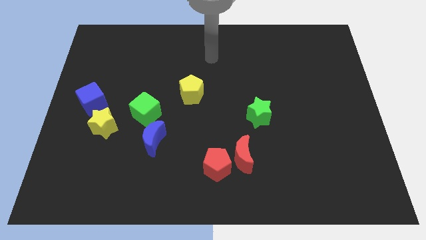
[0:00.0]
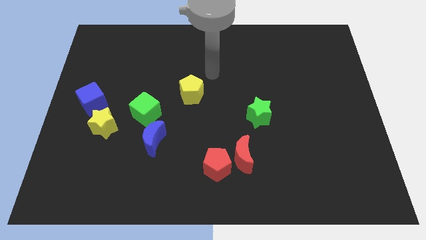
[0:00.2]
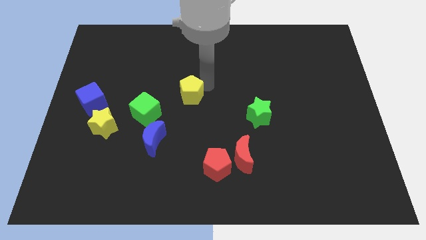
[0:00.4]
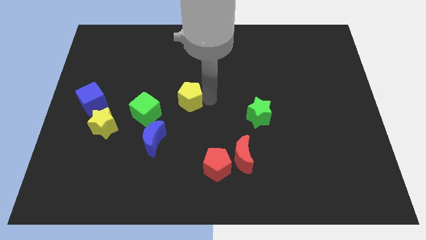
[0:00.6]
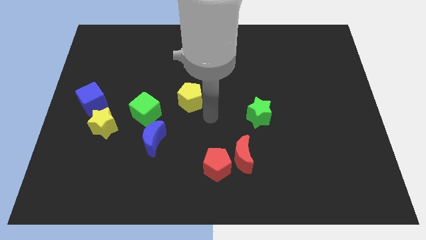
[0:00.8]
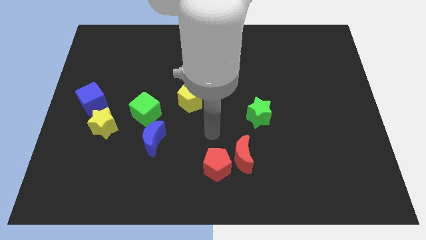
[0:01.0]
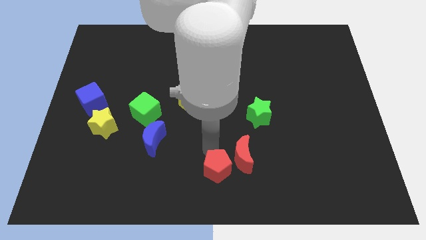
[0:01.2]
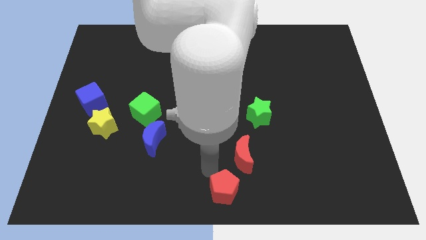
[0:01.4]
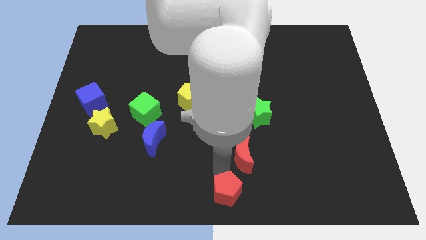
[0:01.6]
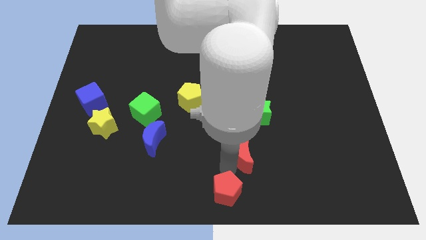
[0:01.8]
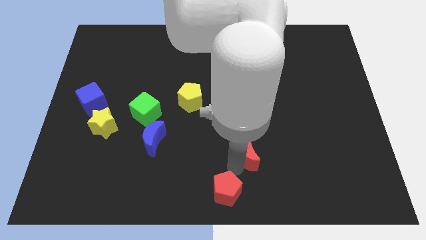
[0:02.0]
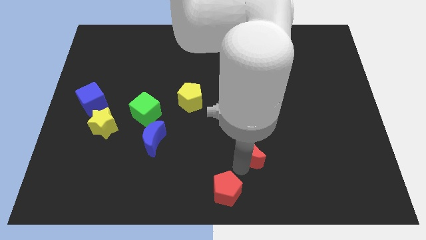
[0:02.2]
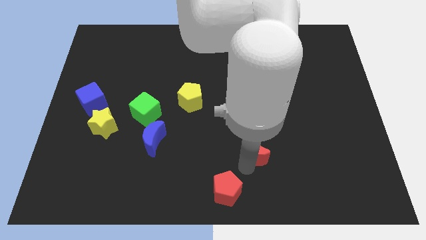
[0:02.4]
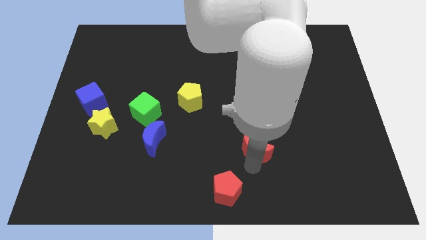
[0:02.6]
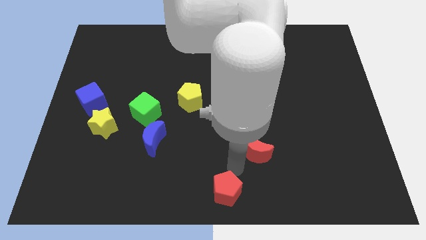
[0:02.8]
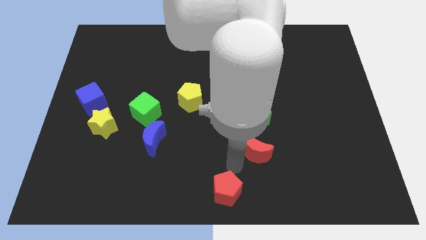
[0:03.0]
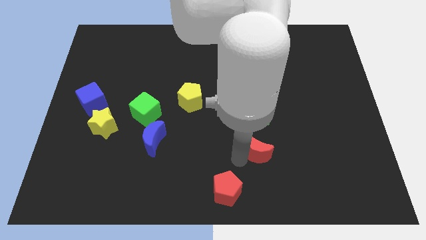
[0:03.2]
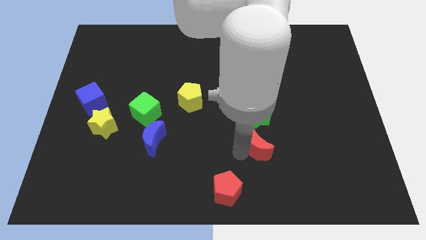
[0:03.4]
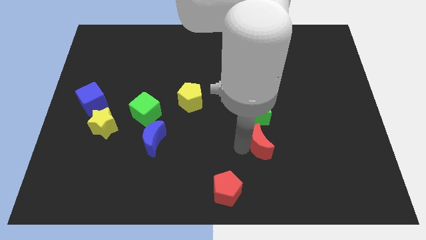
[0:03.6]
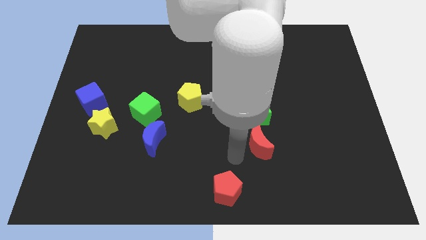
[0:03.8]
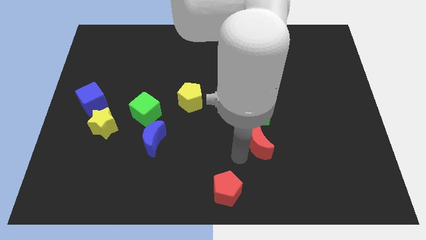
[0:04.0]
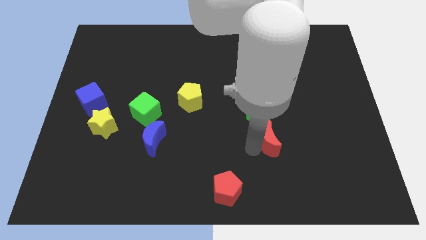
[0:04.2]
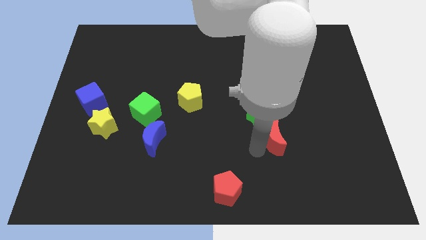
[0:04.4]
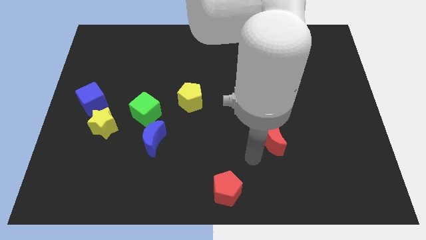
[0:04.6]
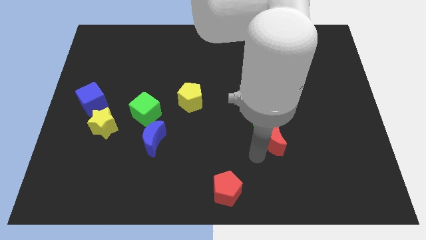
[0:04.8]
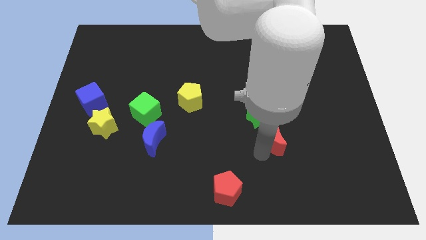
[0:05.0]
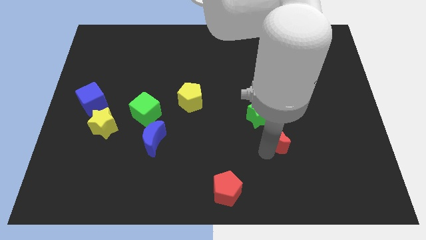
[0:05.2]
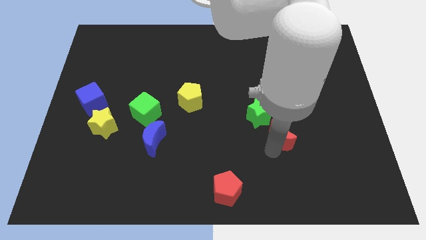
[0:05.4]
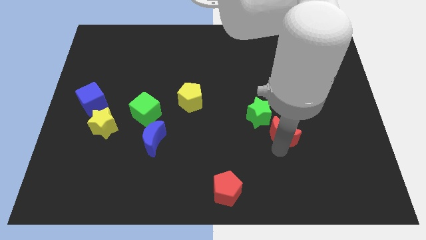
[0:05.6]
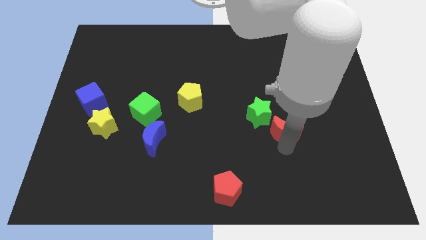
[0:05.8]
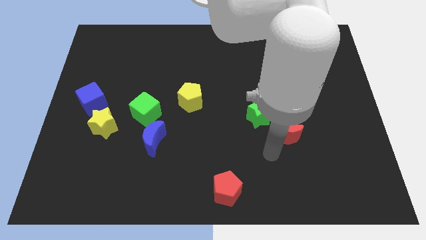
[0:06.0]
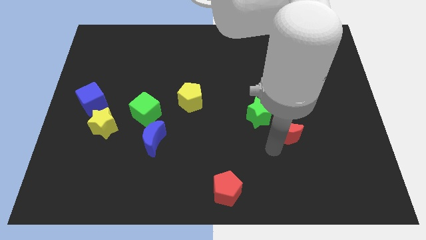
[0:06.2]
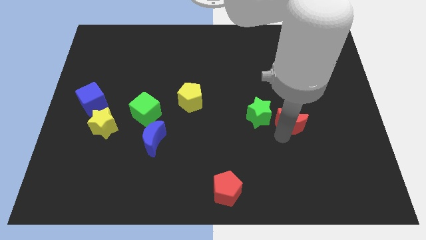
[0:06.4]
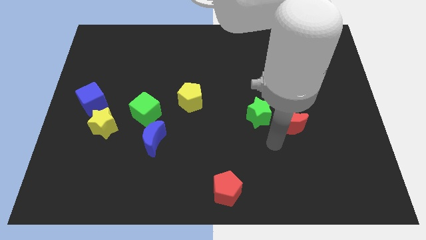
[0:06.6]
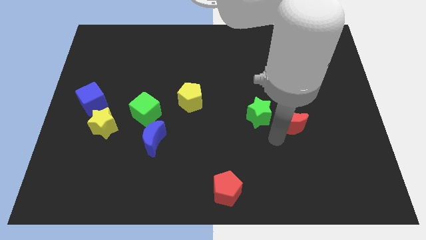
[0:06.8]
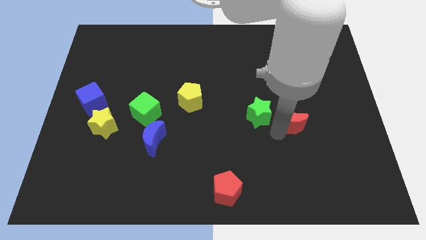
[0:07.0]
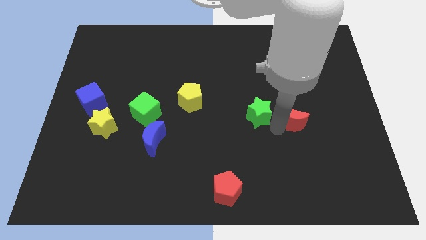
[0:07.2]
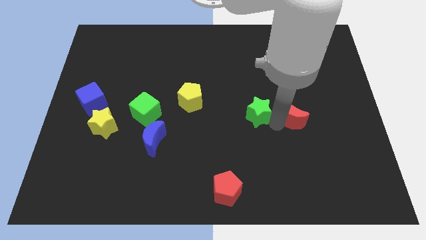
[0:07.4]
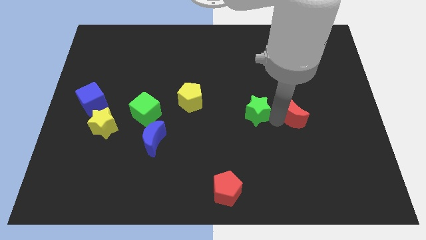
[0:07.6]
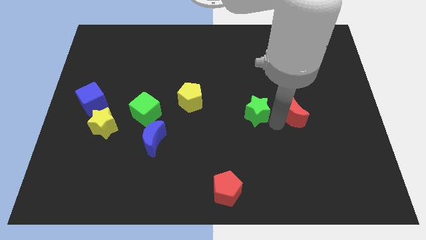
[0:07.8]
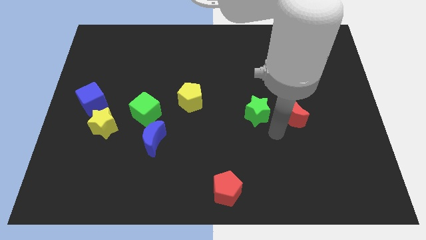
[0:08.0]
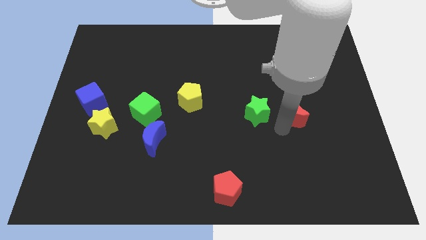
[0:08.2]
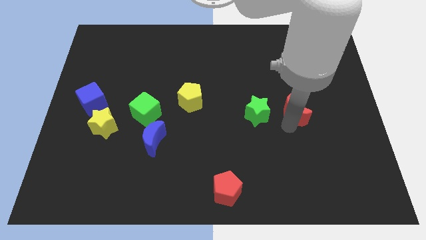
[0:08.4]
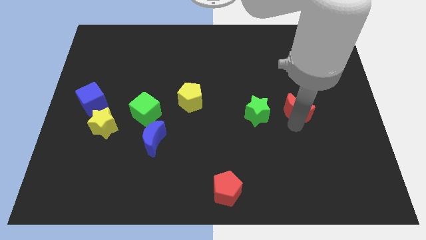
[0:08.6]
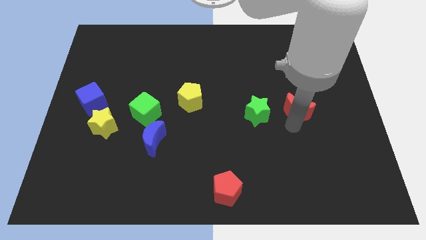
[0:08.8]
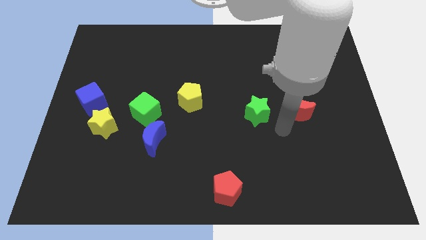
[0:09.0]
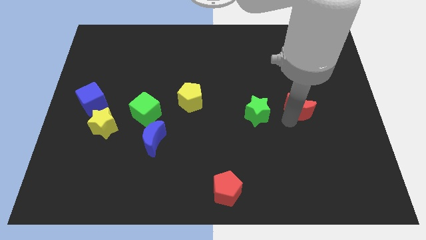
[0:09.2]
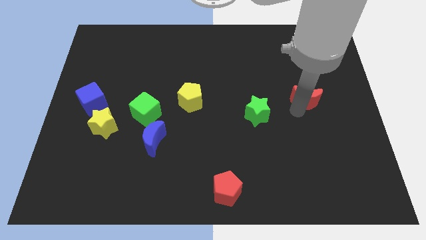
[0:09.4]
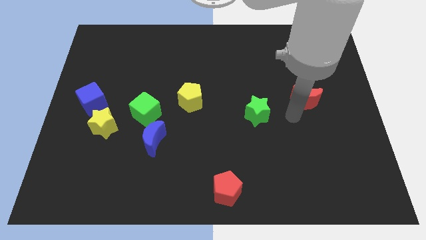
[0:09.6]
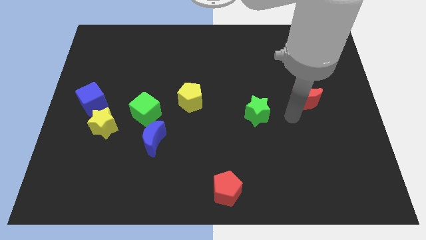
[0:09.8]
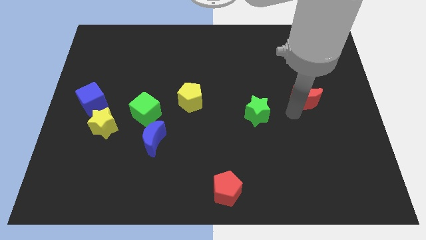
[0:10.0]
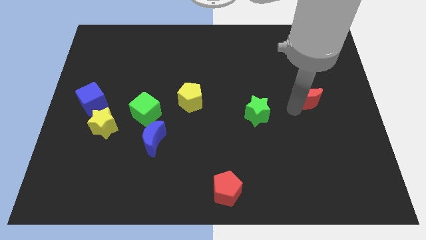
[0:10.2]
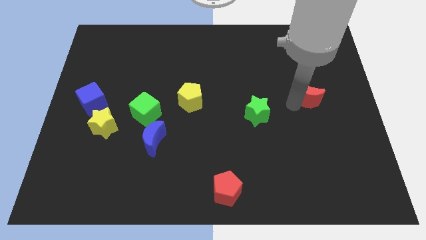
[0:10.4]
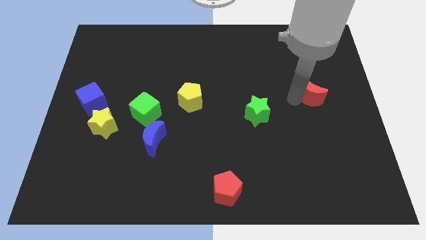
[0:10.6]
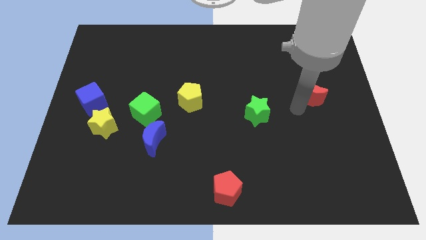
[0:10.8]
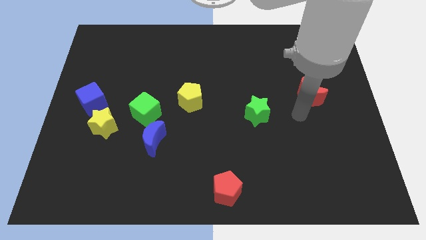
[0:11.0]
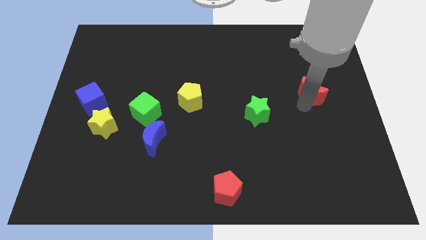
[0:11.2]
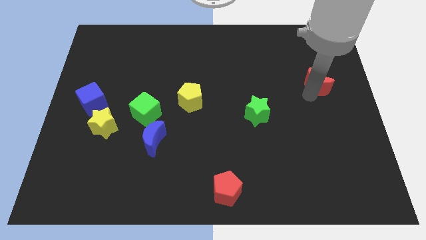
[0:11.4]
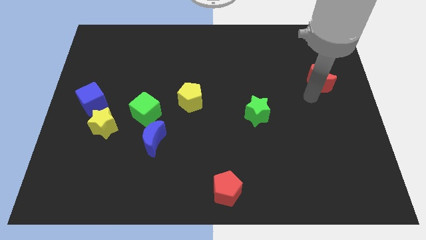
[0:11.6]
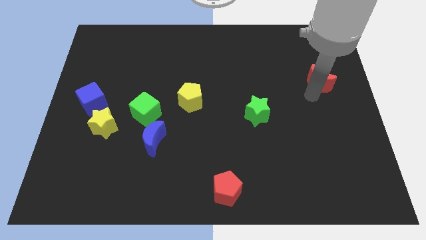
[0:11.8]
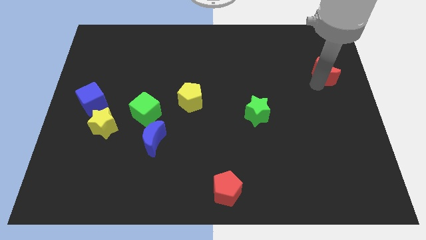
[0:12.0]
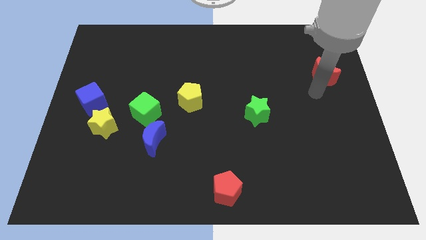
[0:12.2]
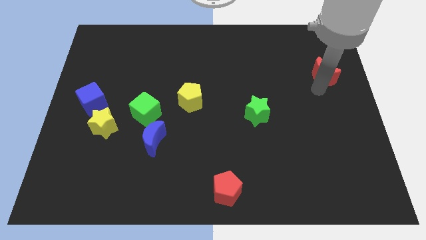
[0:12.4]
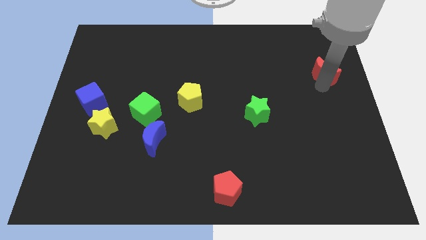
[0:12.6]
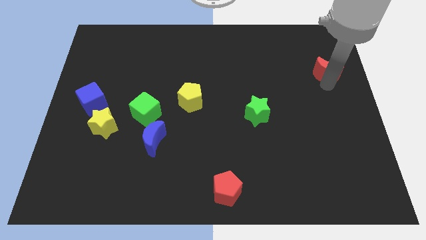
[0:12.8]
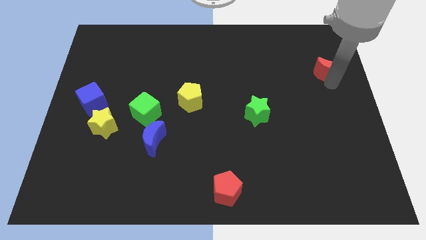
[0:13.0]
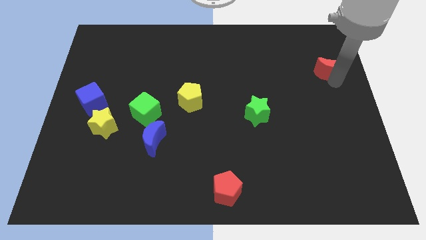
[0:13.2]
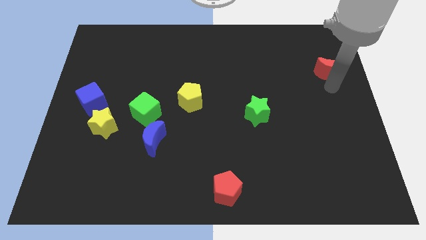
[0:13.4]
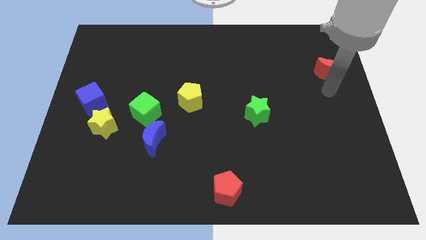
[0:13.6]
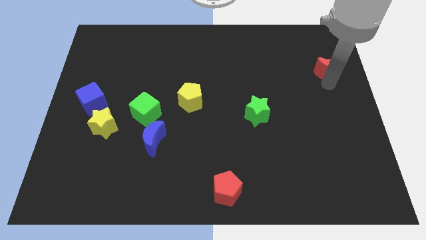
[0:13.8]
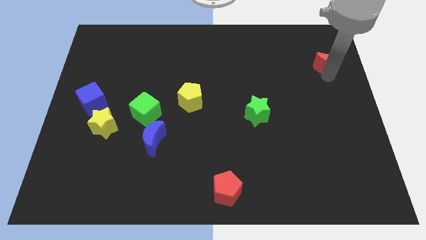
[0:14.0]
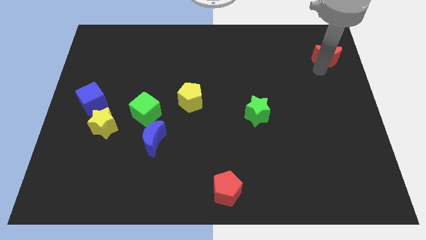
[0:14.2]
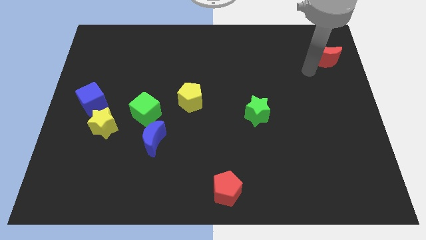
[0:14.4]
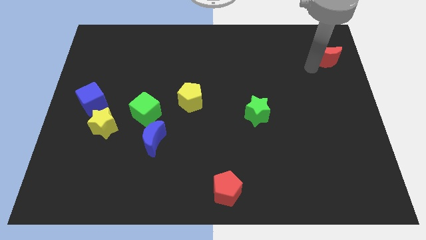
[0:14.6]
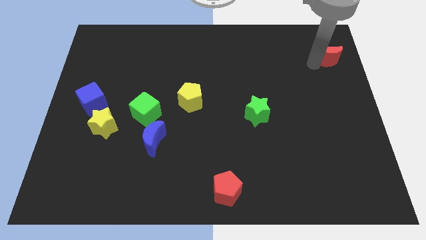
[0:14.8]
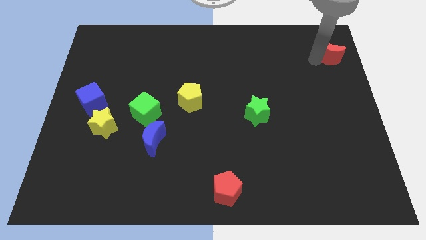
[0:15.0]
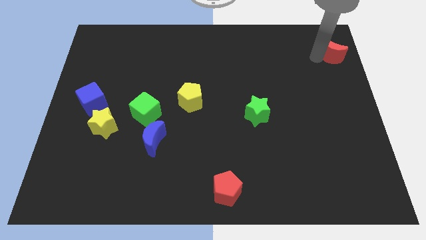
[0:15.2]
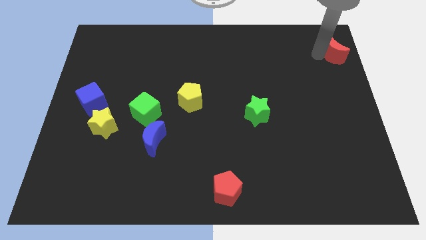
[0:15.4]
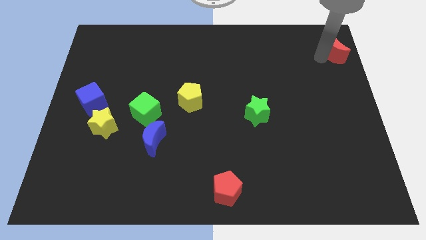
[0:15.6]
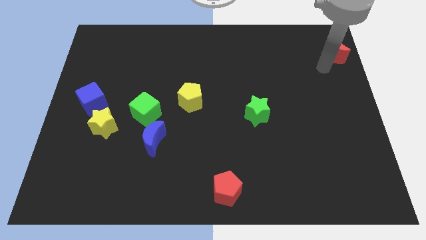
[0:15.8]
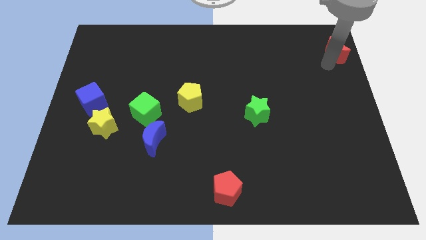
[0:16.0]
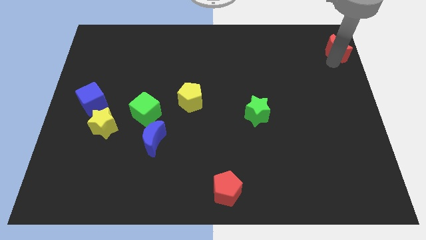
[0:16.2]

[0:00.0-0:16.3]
slide the red moon to the top right of the board
